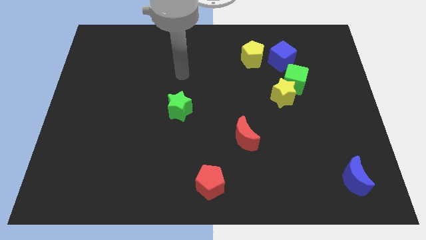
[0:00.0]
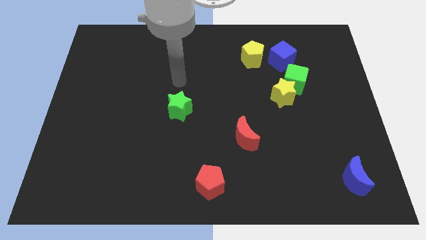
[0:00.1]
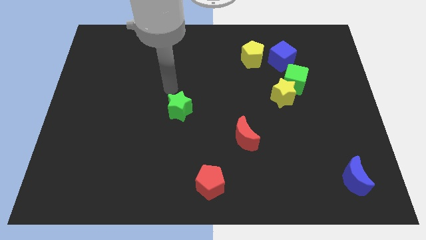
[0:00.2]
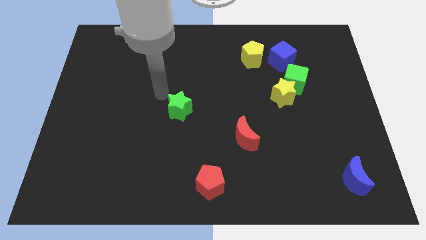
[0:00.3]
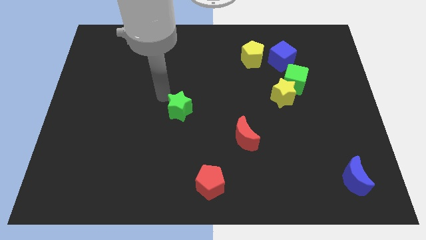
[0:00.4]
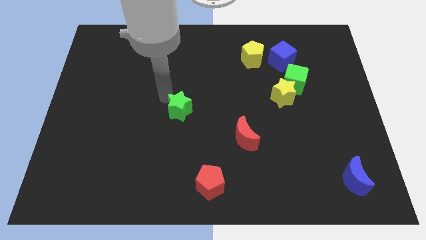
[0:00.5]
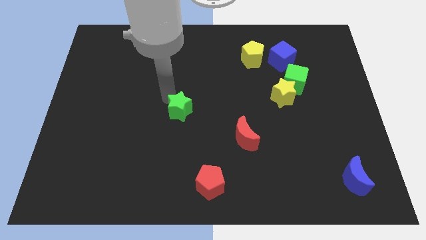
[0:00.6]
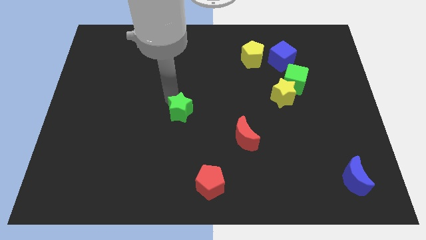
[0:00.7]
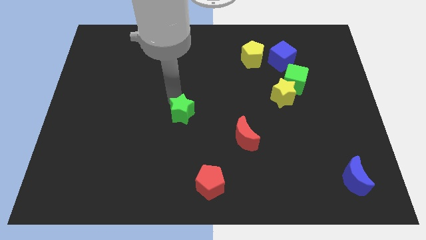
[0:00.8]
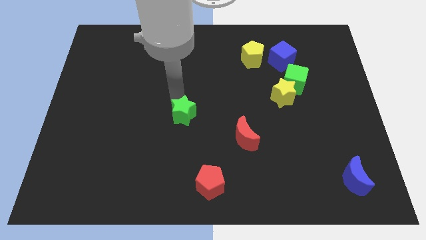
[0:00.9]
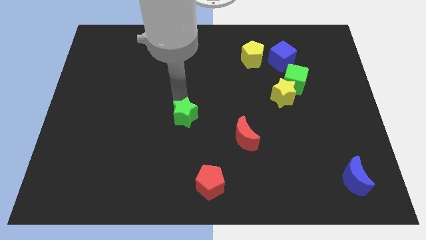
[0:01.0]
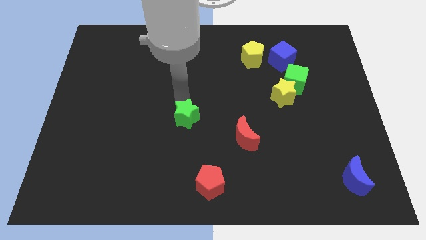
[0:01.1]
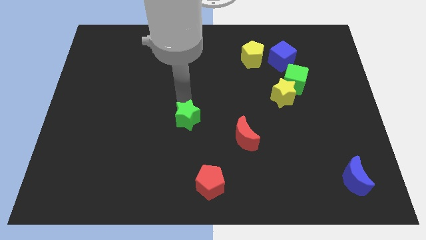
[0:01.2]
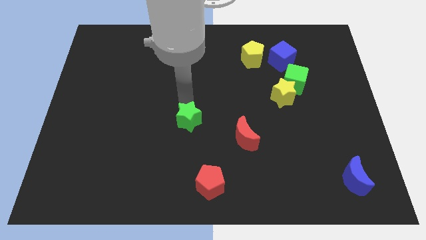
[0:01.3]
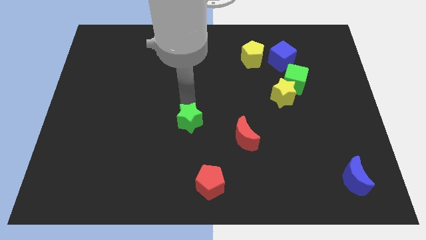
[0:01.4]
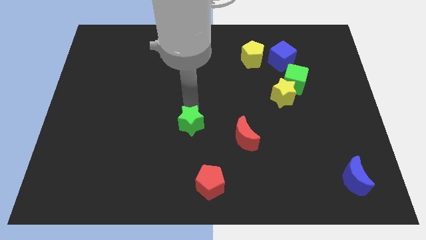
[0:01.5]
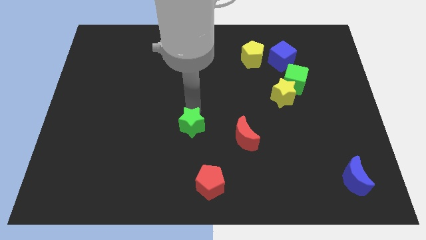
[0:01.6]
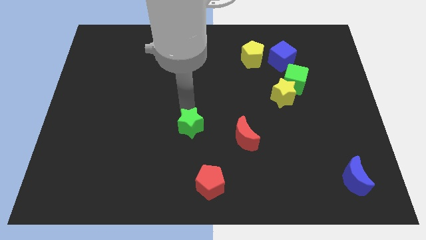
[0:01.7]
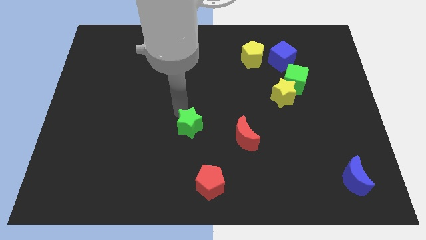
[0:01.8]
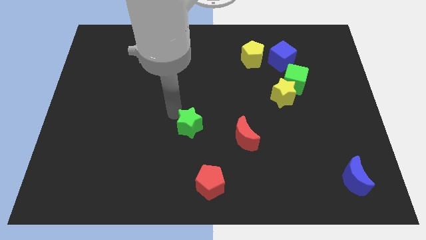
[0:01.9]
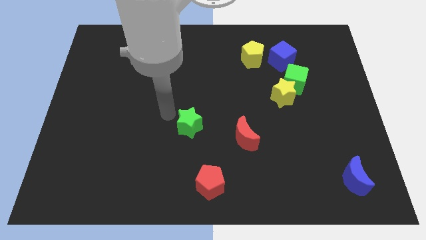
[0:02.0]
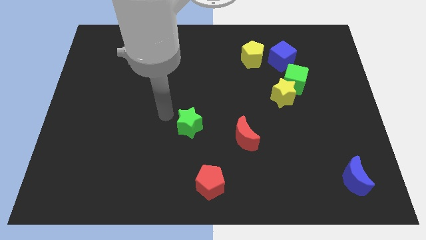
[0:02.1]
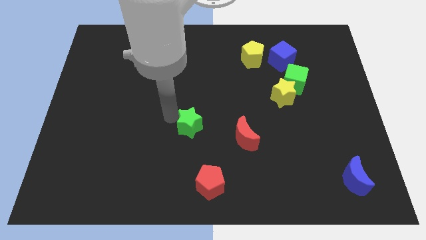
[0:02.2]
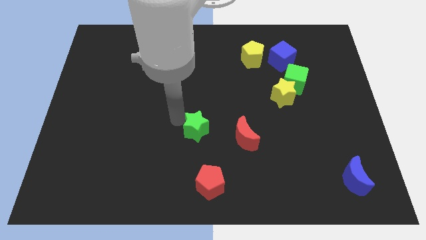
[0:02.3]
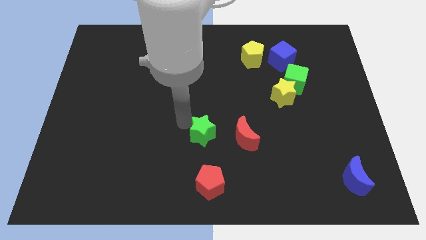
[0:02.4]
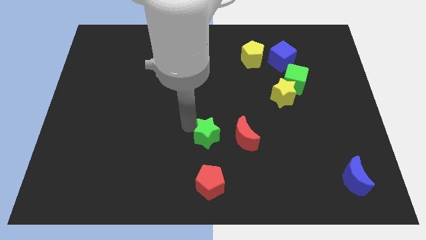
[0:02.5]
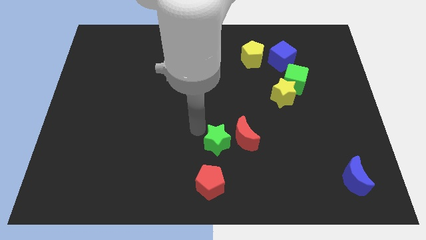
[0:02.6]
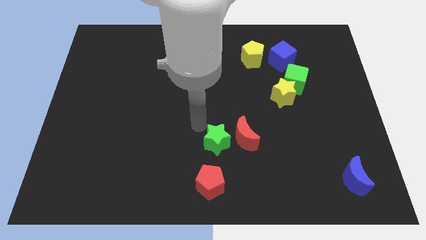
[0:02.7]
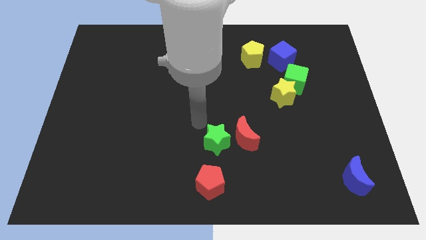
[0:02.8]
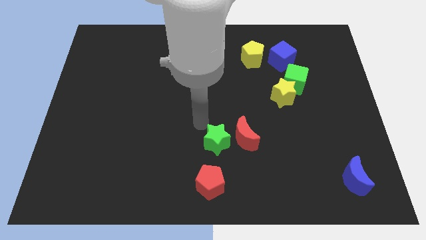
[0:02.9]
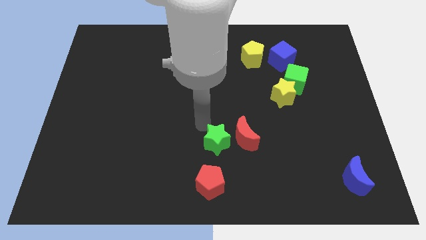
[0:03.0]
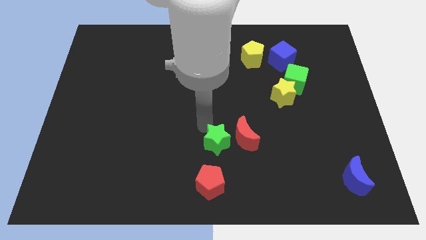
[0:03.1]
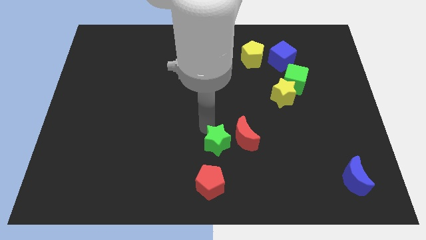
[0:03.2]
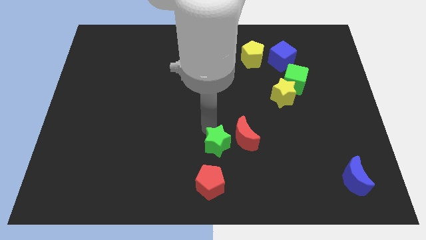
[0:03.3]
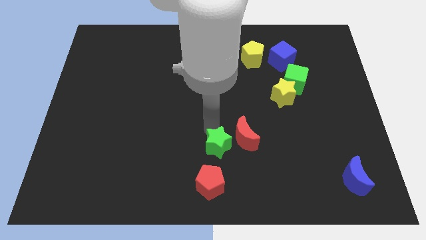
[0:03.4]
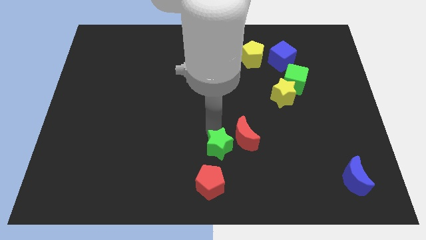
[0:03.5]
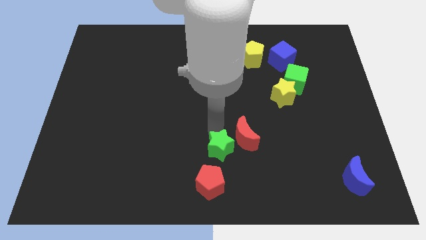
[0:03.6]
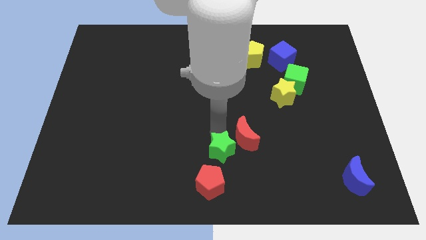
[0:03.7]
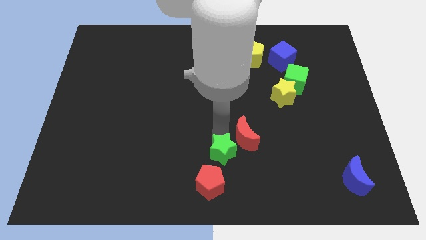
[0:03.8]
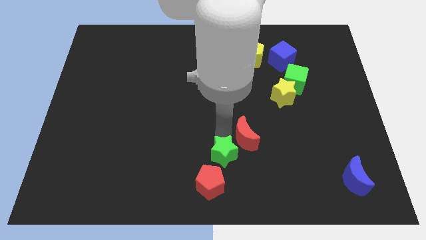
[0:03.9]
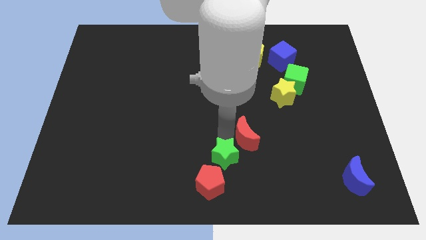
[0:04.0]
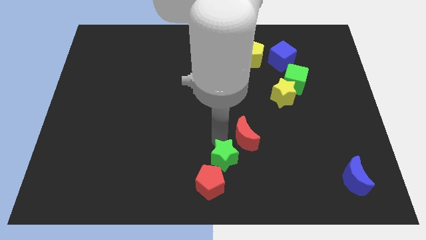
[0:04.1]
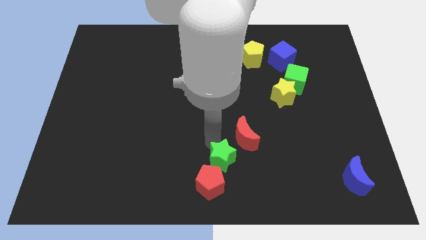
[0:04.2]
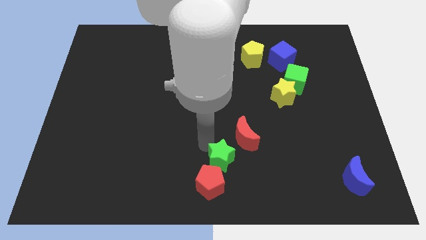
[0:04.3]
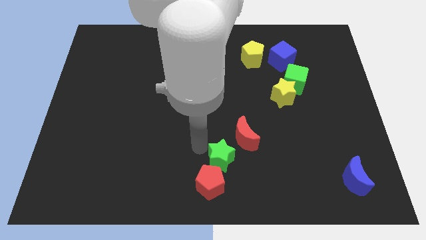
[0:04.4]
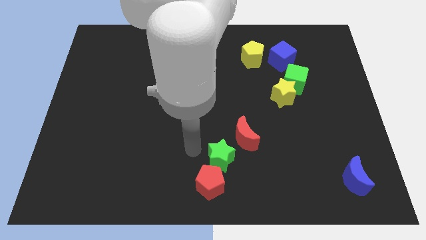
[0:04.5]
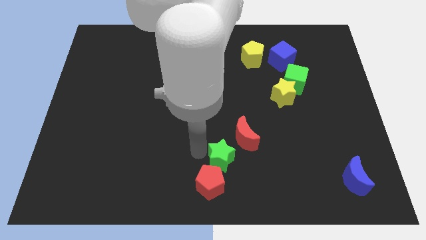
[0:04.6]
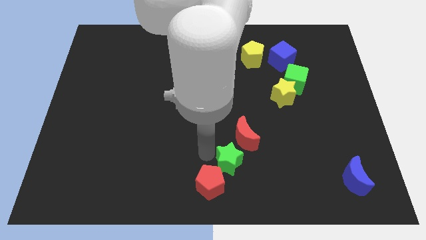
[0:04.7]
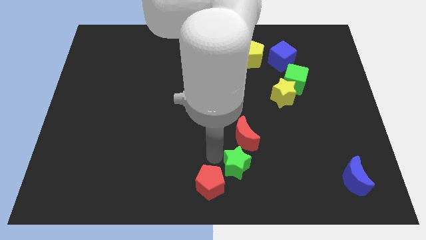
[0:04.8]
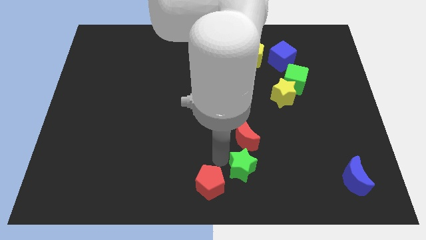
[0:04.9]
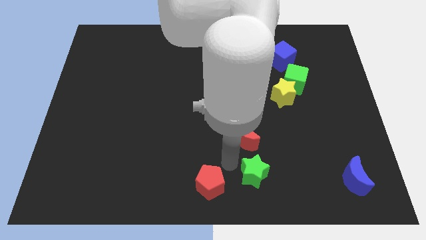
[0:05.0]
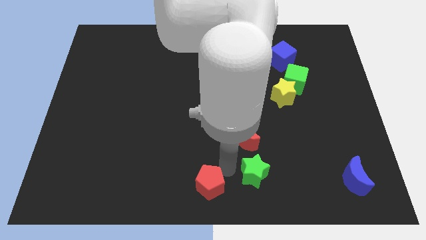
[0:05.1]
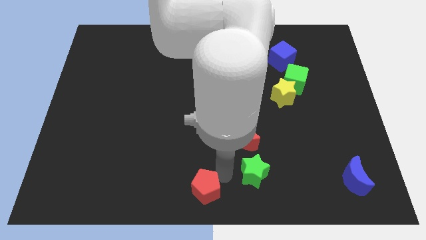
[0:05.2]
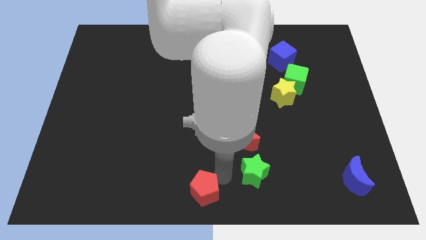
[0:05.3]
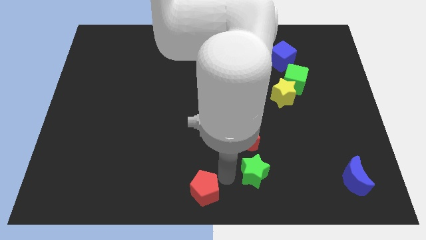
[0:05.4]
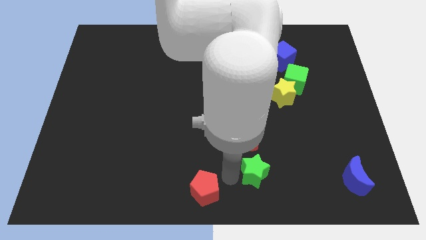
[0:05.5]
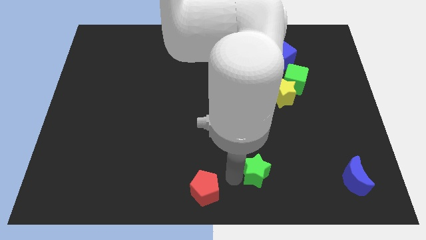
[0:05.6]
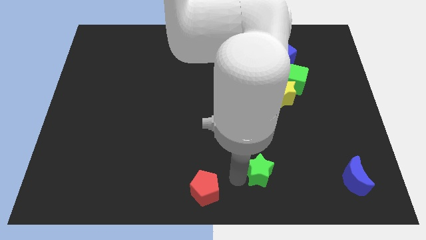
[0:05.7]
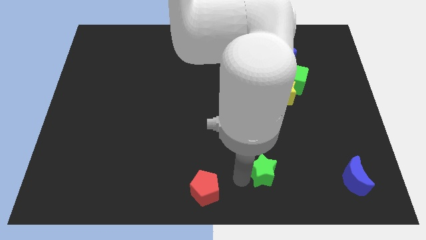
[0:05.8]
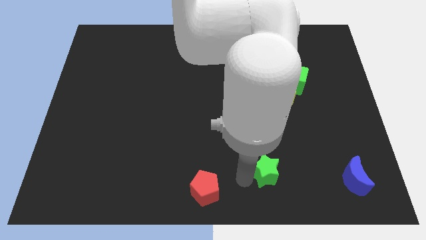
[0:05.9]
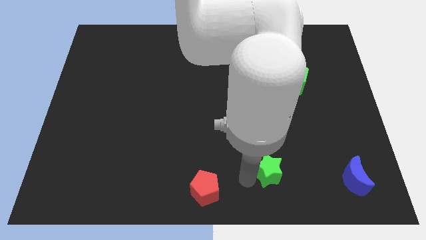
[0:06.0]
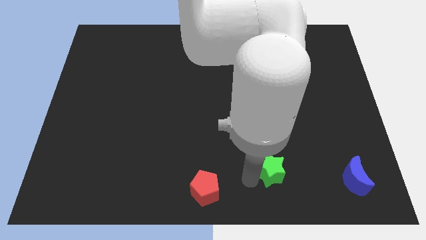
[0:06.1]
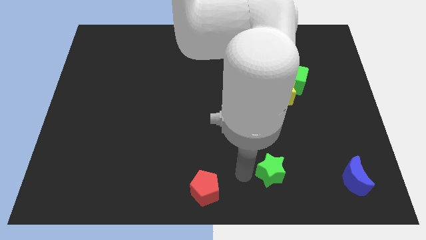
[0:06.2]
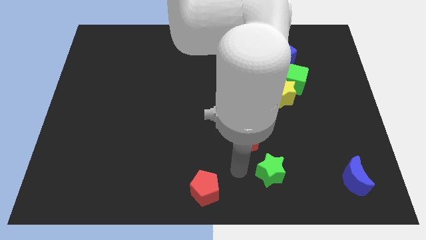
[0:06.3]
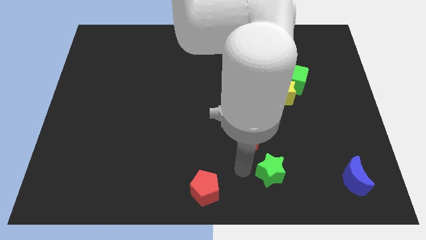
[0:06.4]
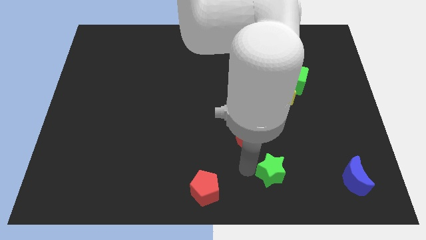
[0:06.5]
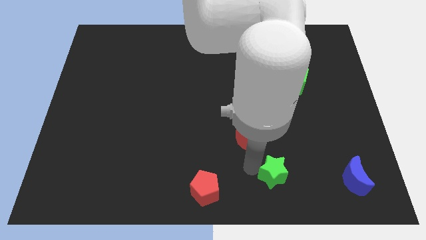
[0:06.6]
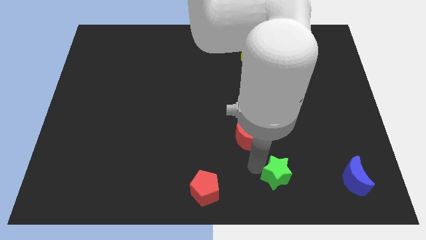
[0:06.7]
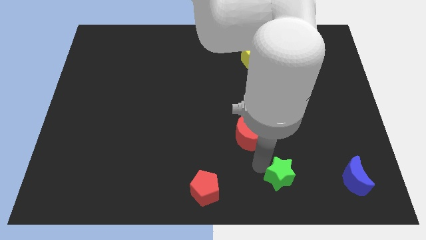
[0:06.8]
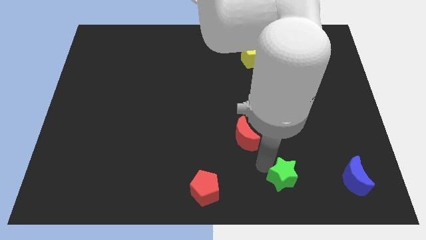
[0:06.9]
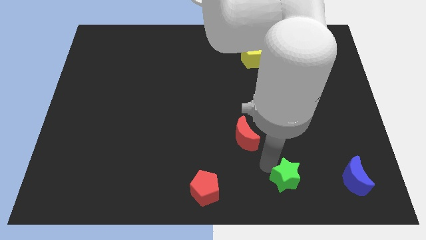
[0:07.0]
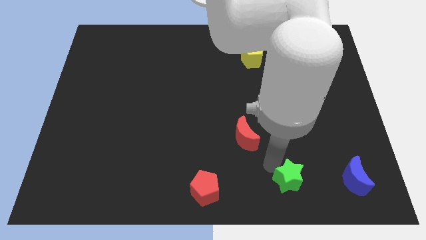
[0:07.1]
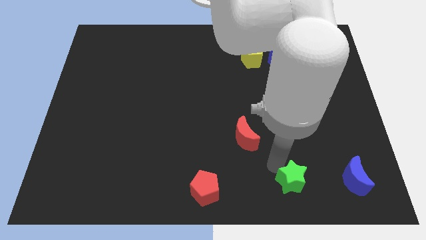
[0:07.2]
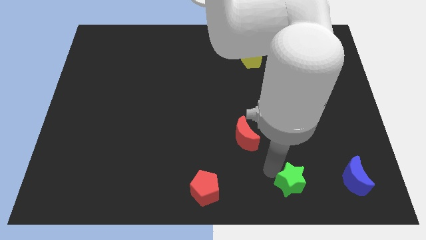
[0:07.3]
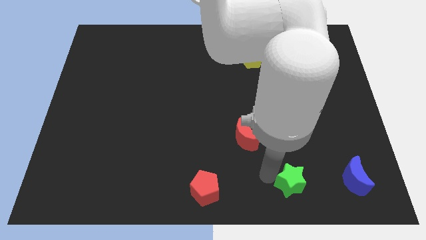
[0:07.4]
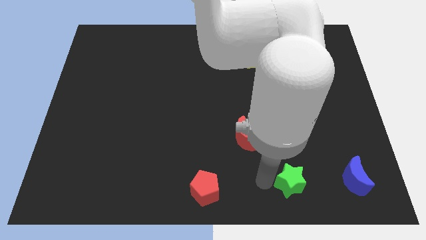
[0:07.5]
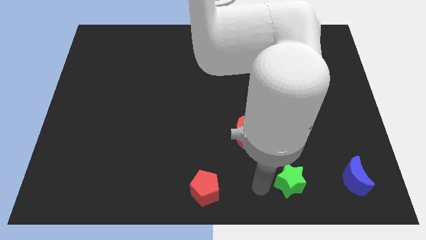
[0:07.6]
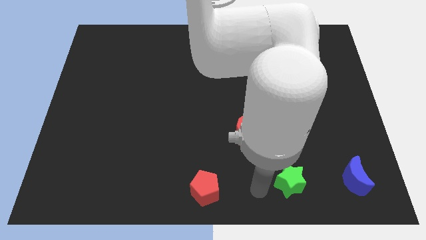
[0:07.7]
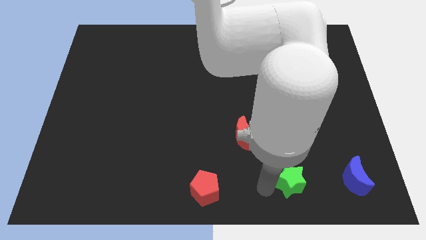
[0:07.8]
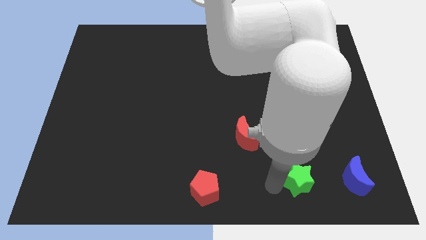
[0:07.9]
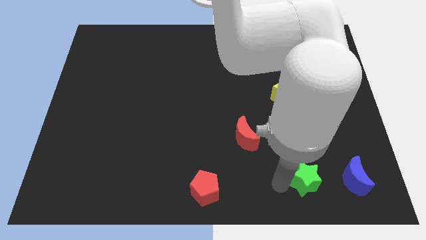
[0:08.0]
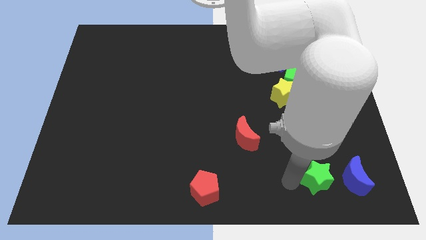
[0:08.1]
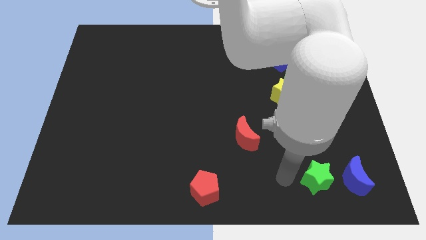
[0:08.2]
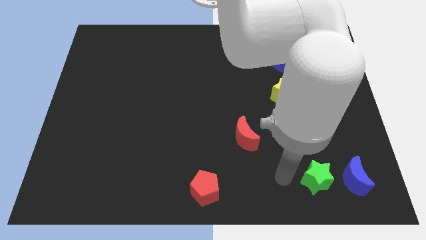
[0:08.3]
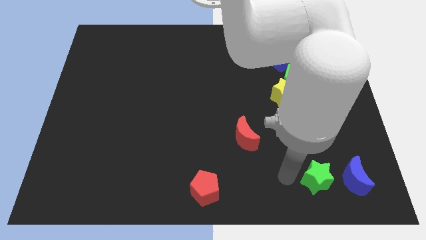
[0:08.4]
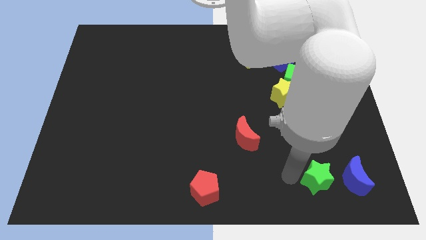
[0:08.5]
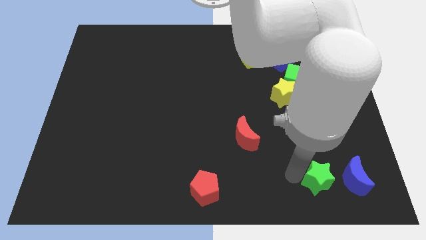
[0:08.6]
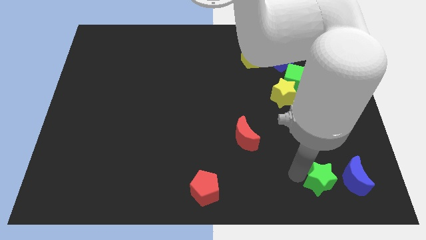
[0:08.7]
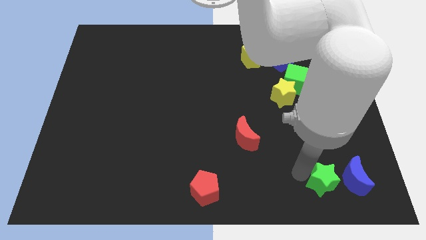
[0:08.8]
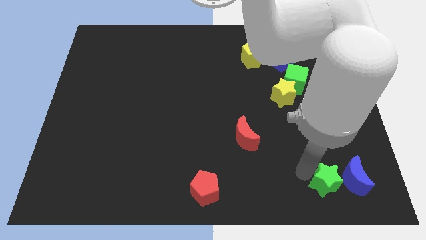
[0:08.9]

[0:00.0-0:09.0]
slide the green star towards the blue moon
